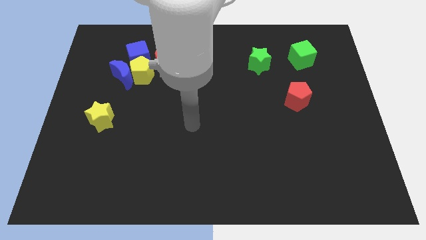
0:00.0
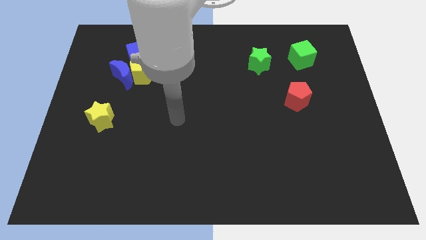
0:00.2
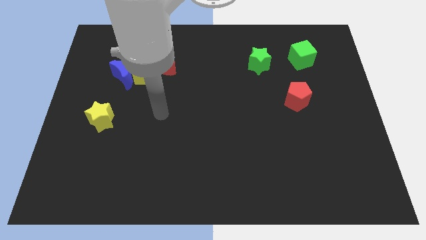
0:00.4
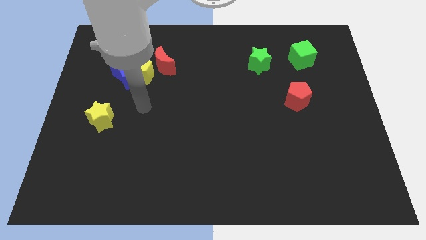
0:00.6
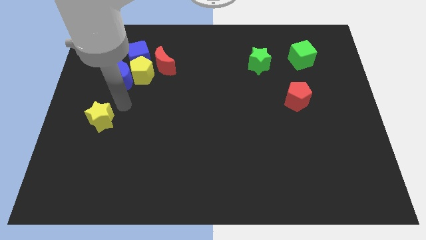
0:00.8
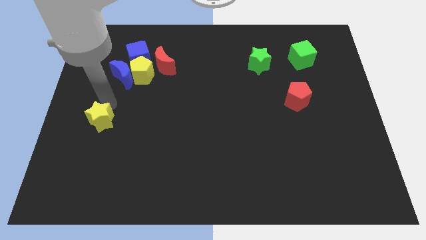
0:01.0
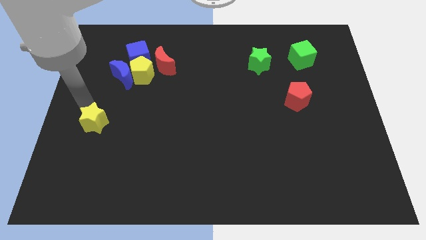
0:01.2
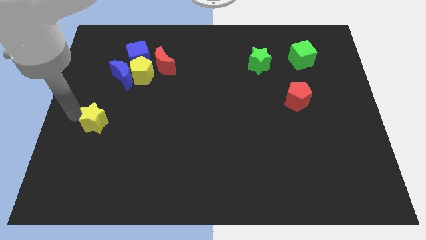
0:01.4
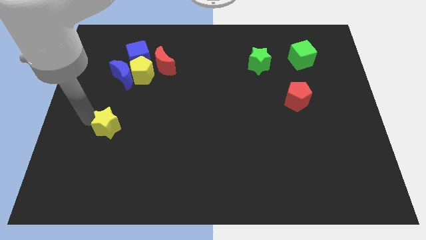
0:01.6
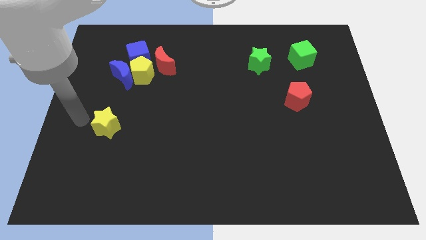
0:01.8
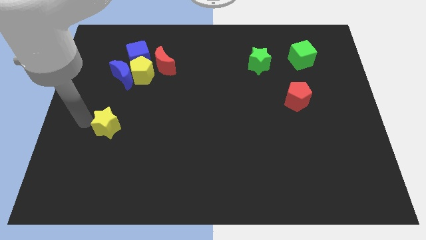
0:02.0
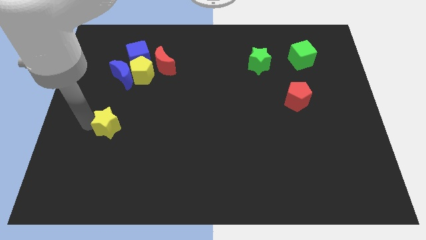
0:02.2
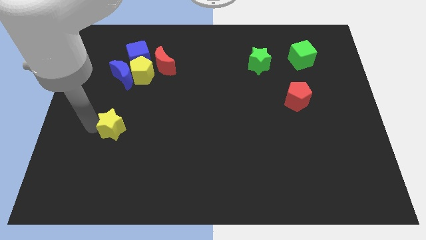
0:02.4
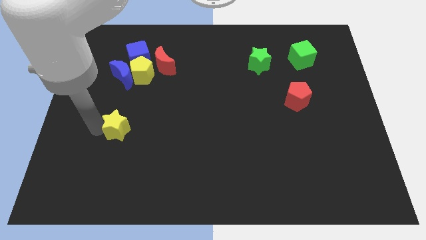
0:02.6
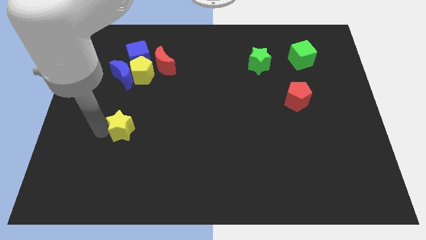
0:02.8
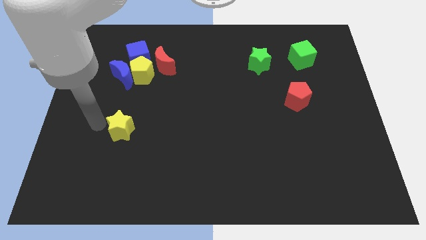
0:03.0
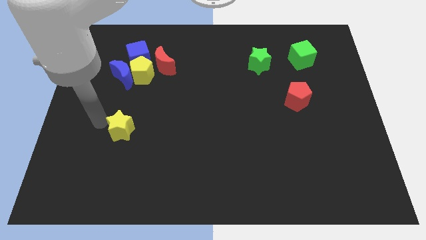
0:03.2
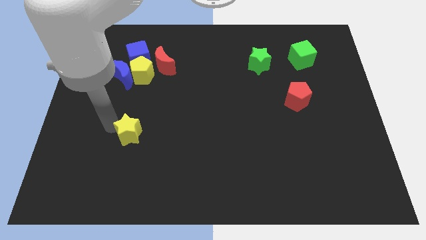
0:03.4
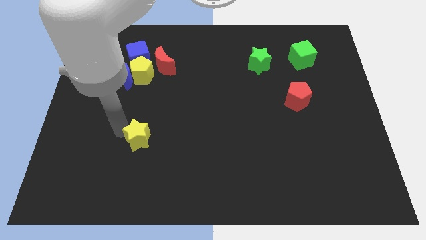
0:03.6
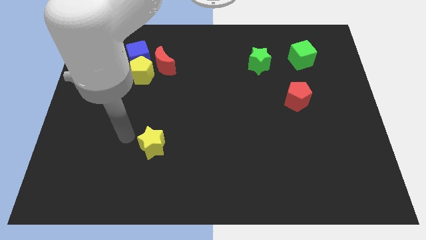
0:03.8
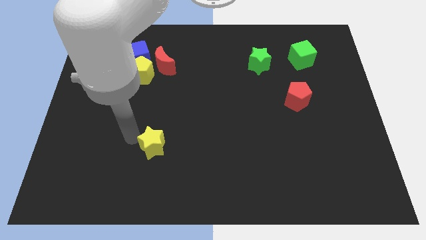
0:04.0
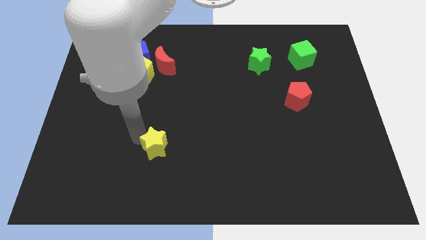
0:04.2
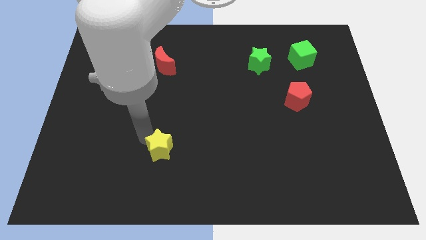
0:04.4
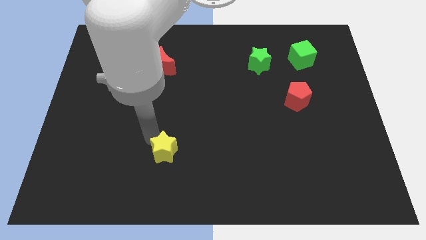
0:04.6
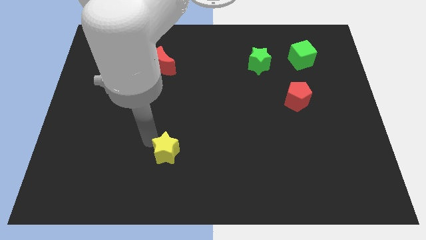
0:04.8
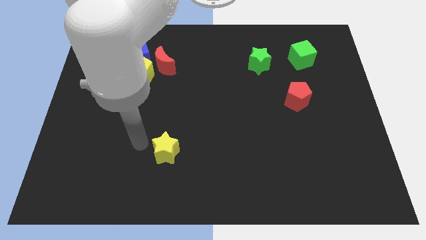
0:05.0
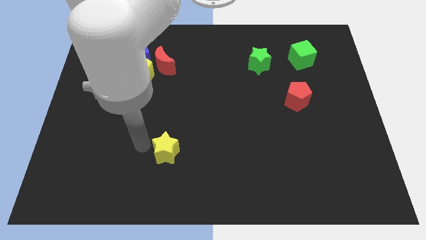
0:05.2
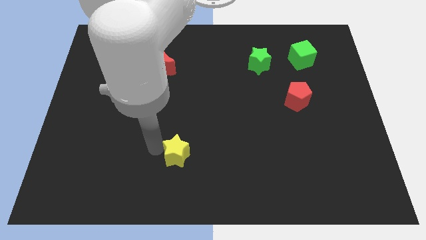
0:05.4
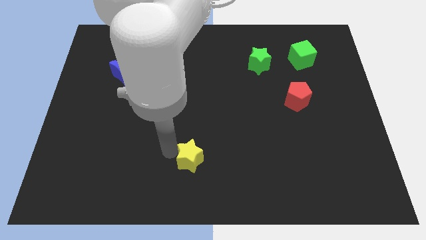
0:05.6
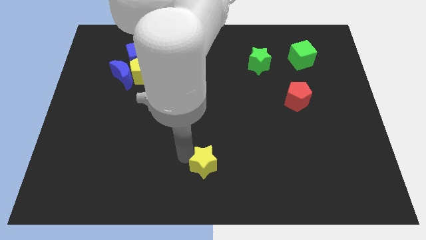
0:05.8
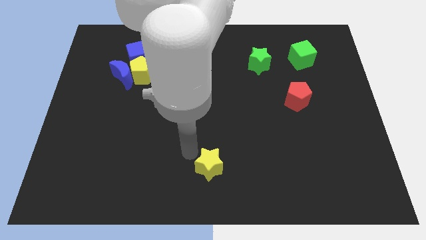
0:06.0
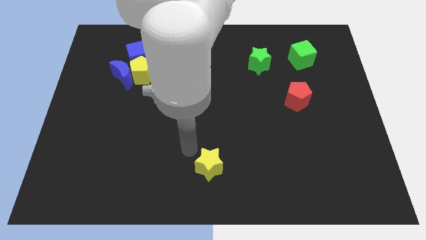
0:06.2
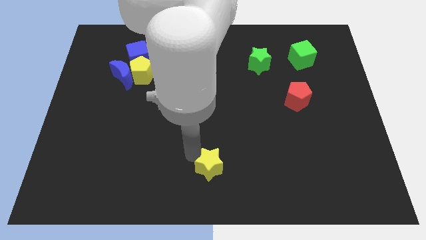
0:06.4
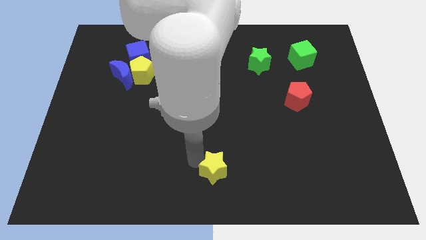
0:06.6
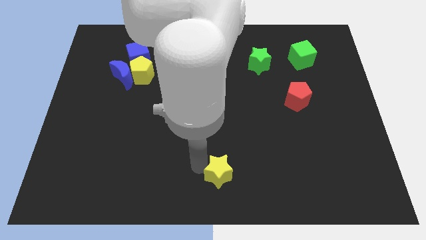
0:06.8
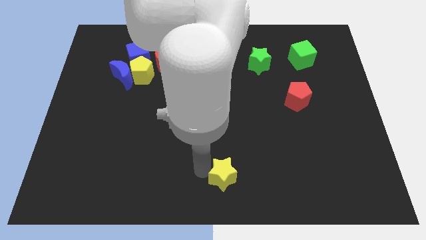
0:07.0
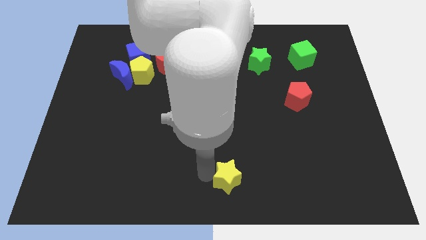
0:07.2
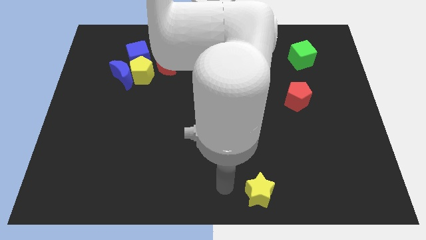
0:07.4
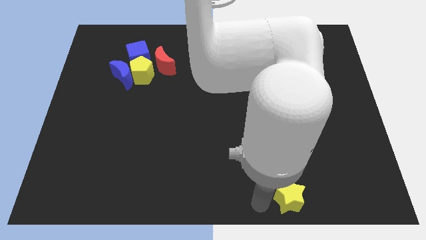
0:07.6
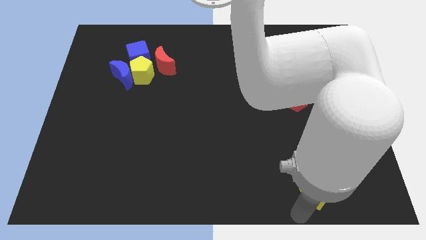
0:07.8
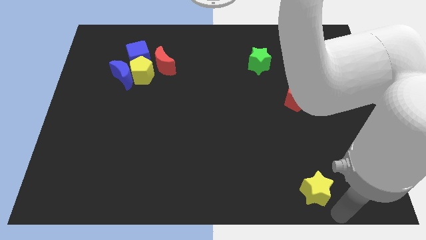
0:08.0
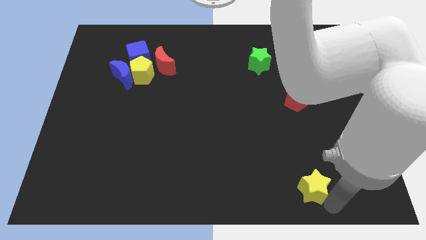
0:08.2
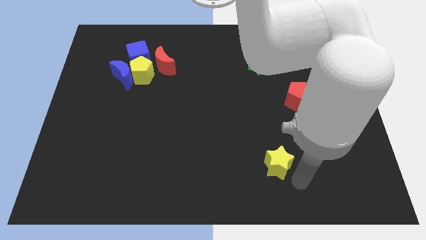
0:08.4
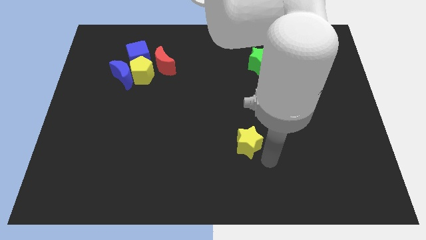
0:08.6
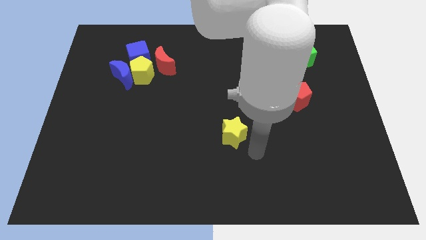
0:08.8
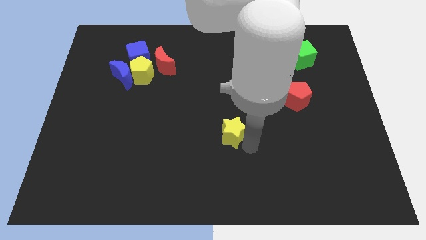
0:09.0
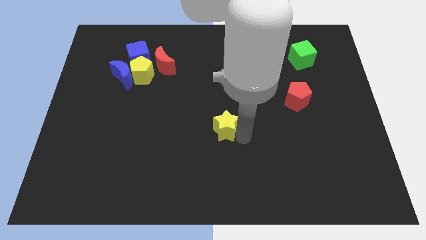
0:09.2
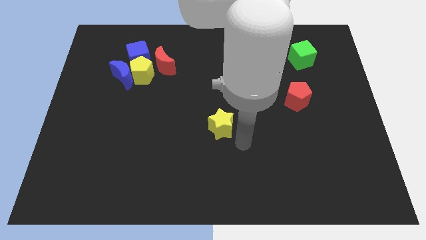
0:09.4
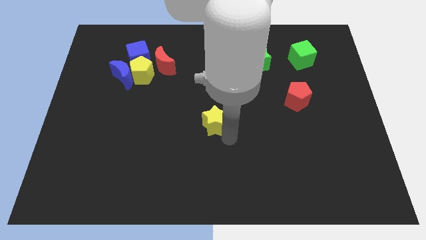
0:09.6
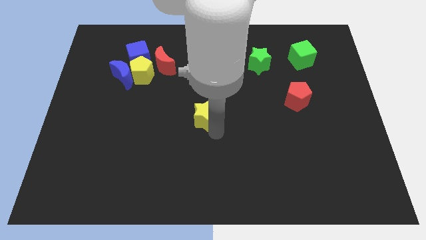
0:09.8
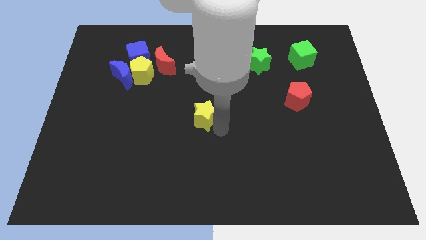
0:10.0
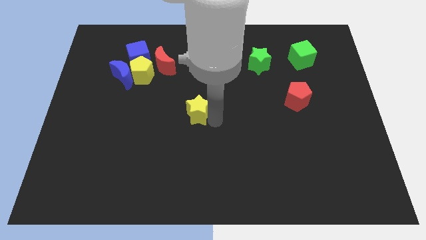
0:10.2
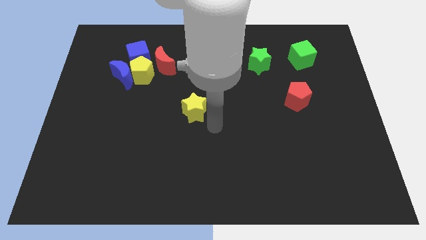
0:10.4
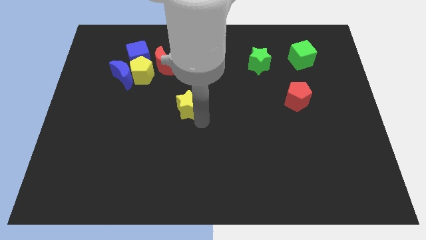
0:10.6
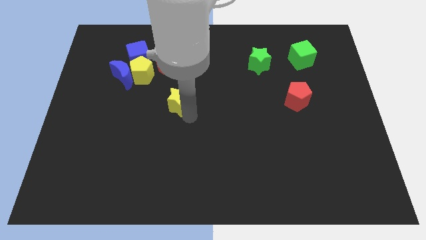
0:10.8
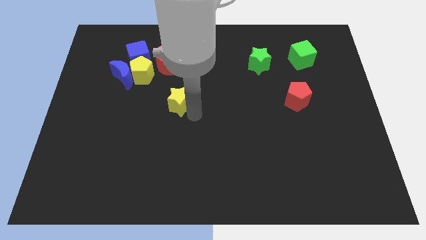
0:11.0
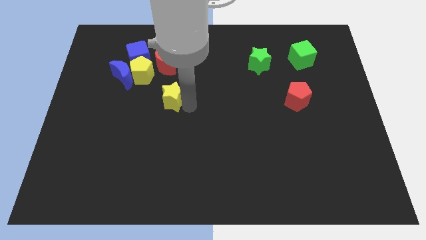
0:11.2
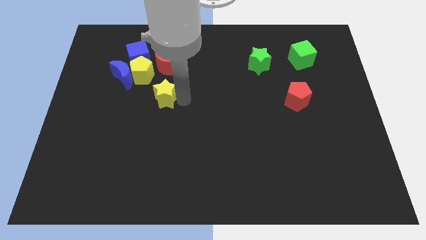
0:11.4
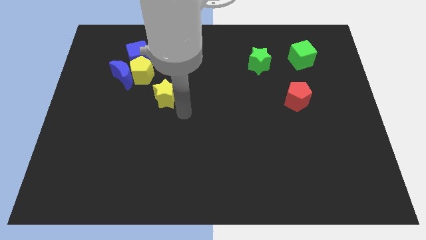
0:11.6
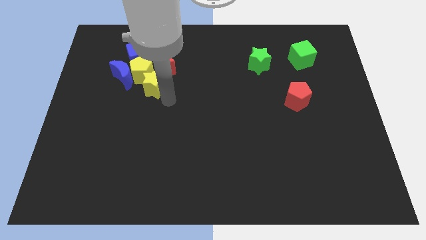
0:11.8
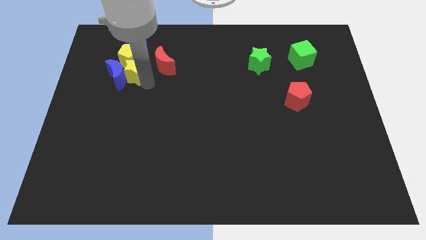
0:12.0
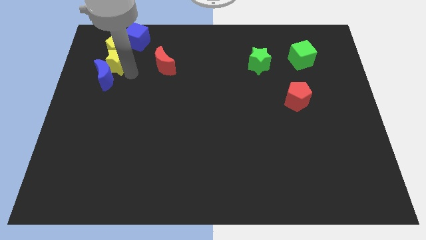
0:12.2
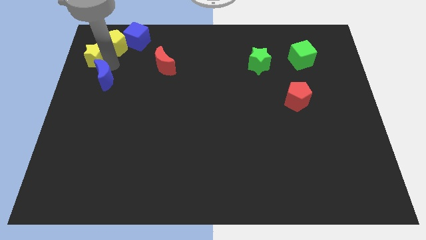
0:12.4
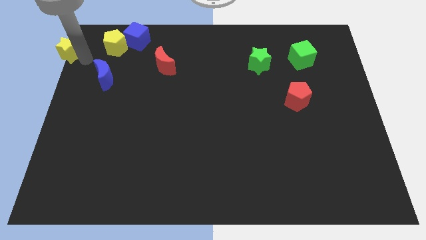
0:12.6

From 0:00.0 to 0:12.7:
move the yellow star to the top left
